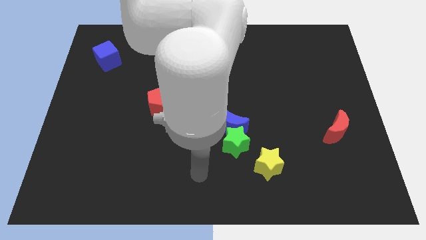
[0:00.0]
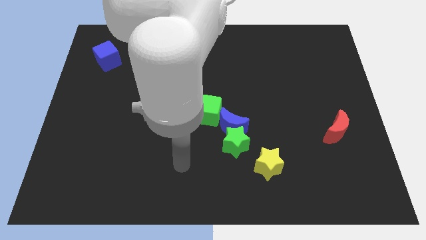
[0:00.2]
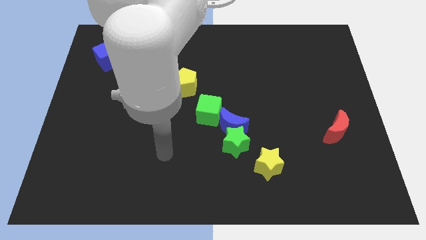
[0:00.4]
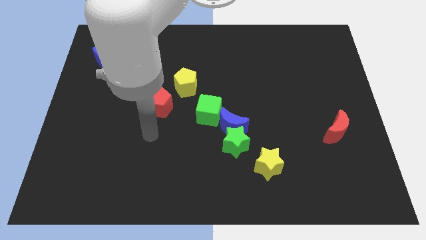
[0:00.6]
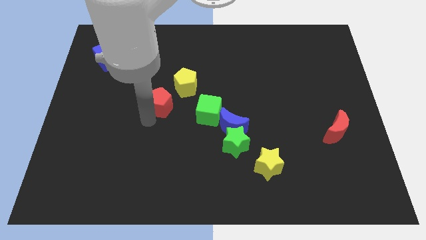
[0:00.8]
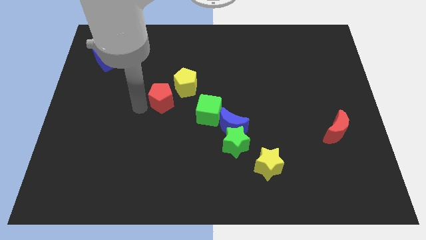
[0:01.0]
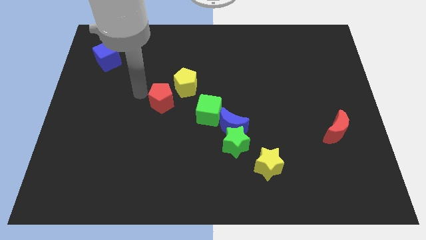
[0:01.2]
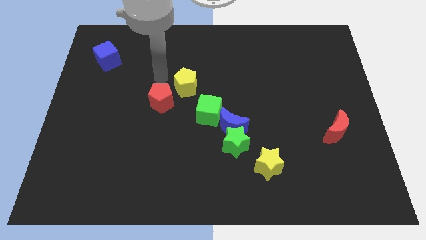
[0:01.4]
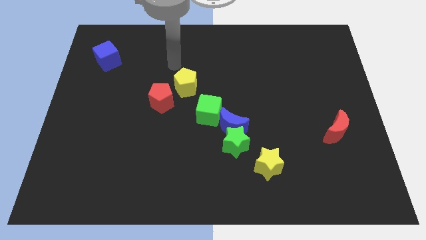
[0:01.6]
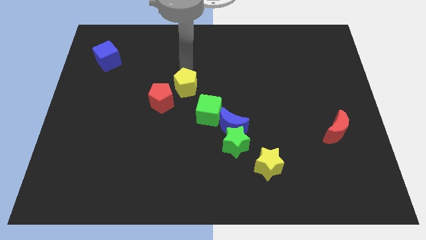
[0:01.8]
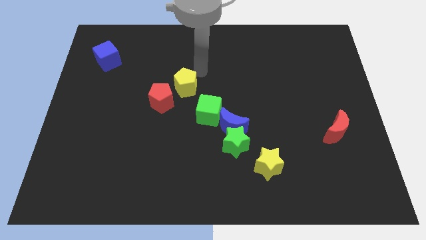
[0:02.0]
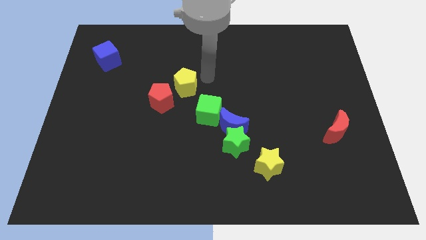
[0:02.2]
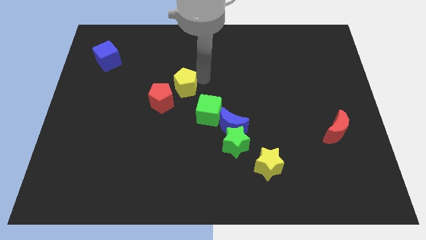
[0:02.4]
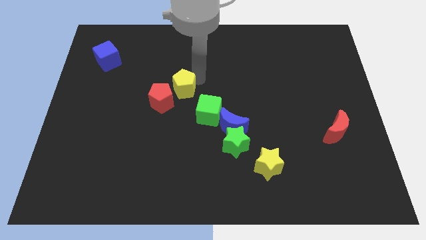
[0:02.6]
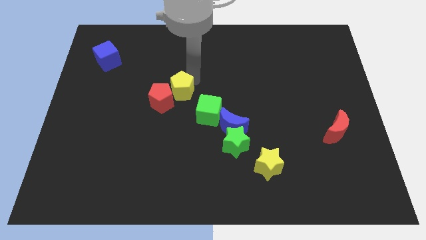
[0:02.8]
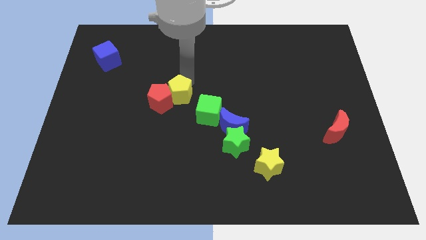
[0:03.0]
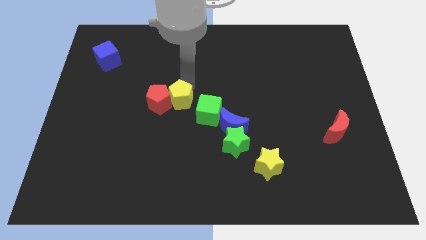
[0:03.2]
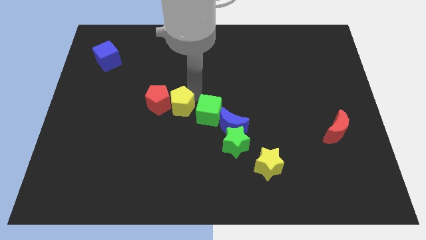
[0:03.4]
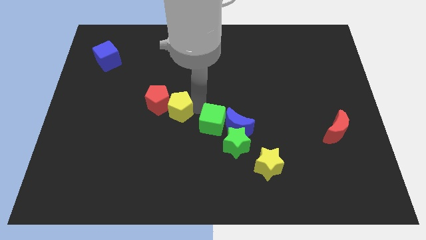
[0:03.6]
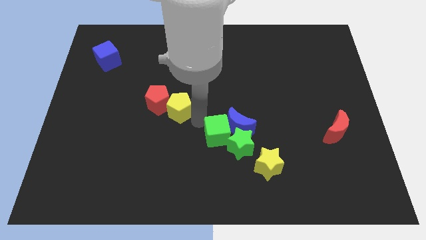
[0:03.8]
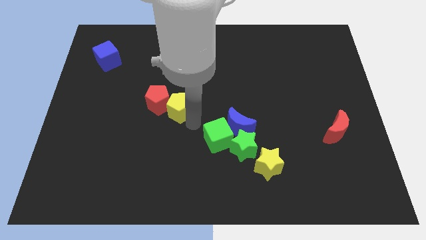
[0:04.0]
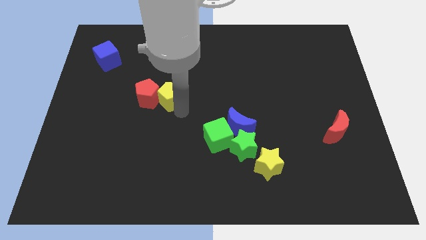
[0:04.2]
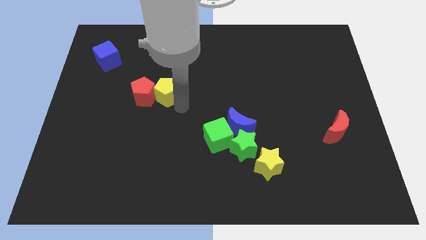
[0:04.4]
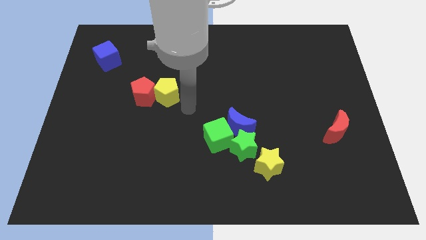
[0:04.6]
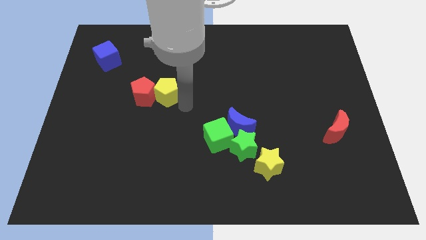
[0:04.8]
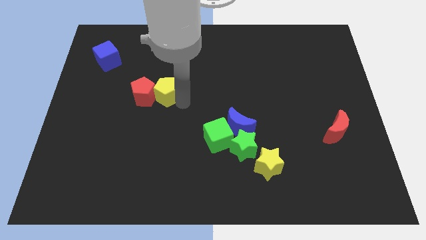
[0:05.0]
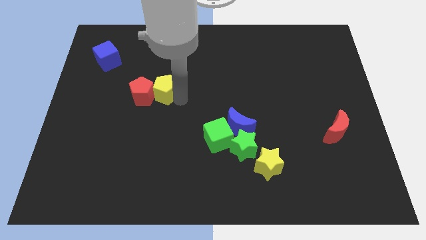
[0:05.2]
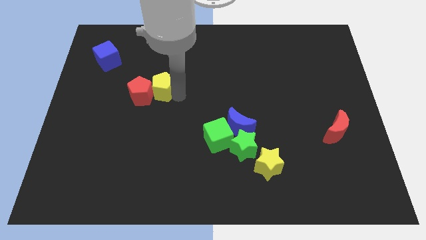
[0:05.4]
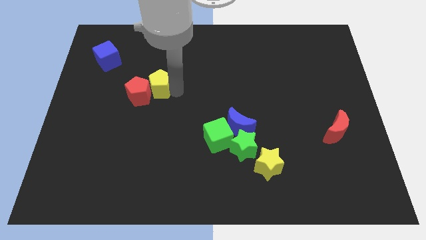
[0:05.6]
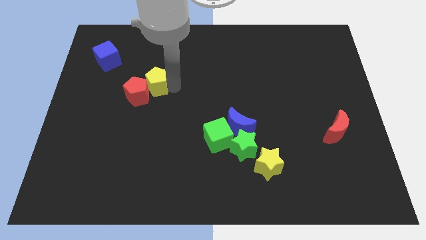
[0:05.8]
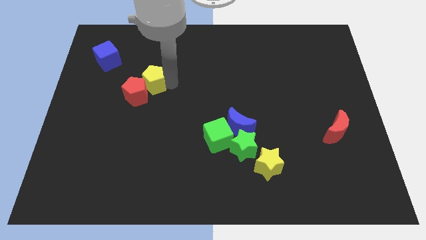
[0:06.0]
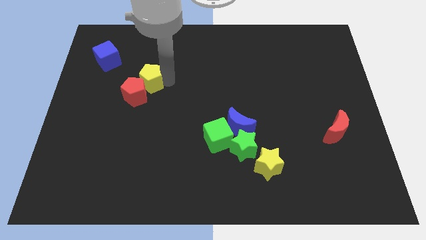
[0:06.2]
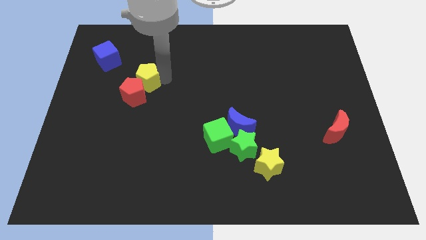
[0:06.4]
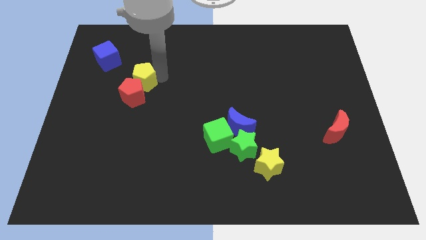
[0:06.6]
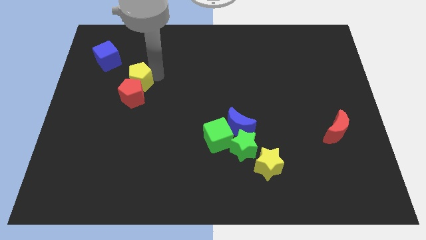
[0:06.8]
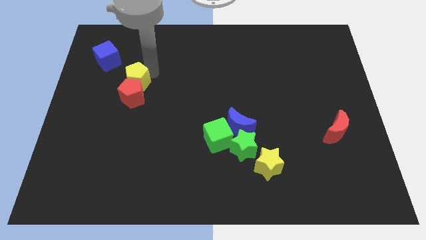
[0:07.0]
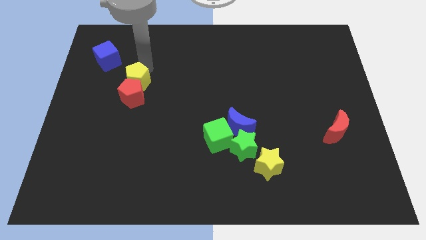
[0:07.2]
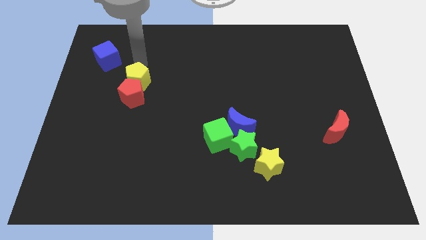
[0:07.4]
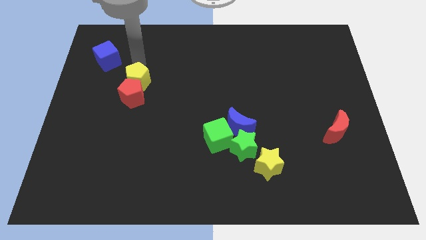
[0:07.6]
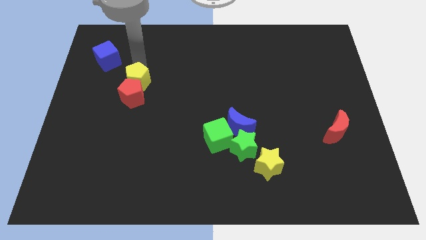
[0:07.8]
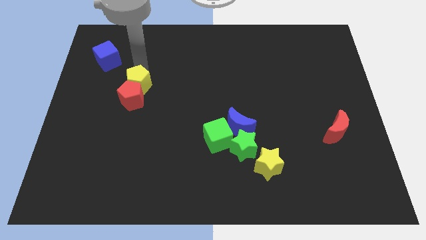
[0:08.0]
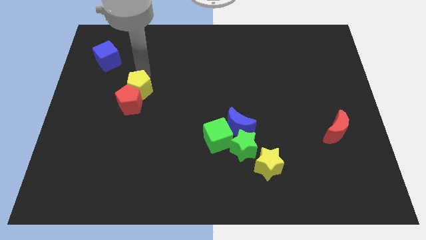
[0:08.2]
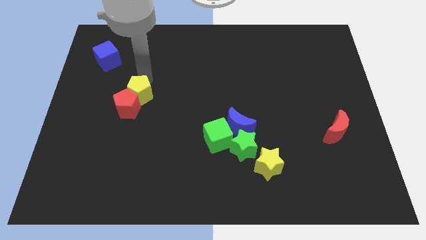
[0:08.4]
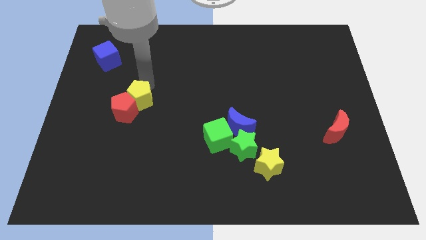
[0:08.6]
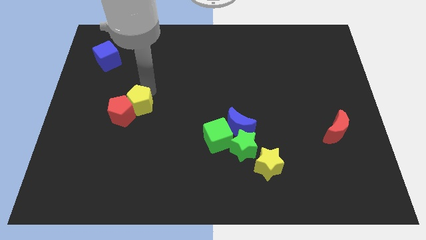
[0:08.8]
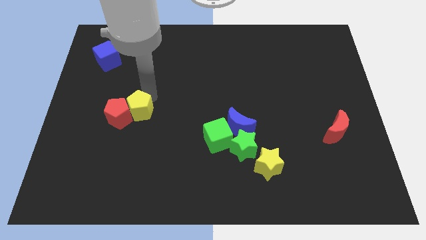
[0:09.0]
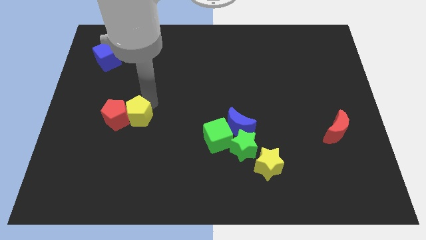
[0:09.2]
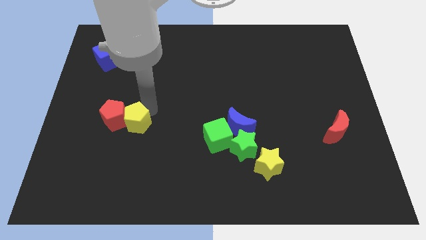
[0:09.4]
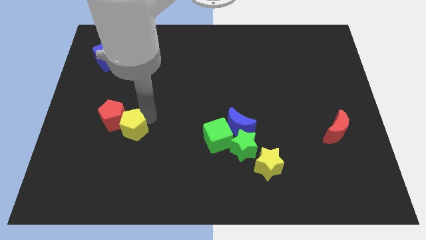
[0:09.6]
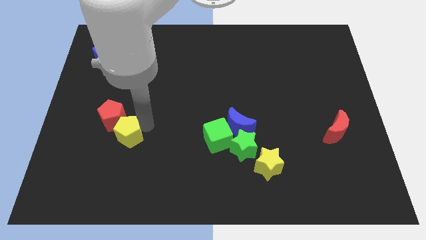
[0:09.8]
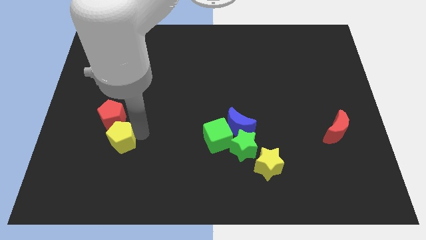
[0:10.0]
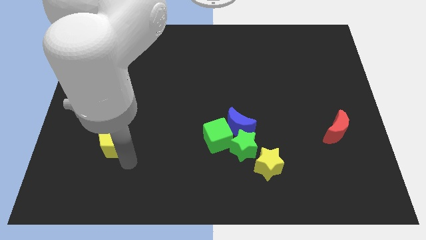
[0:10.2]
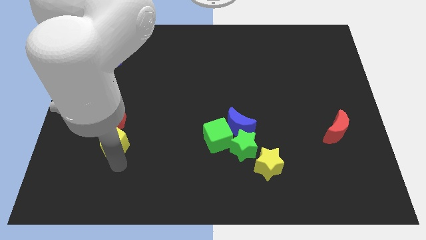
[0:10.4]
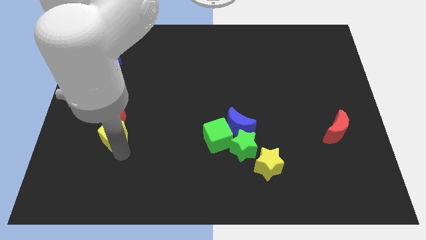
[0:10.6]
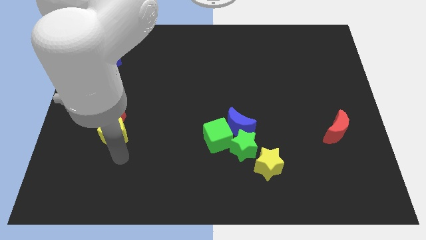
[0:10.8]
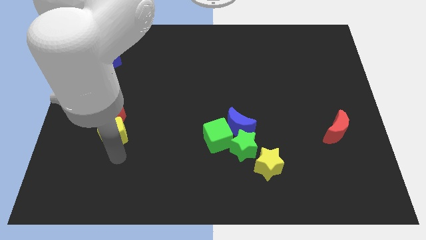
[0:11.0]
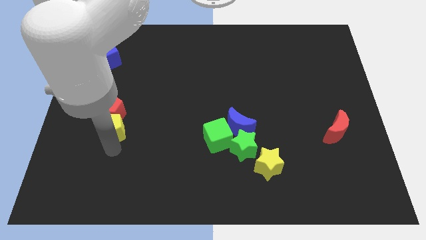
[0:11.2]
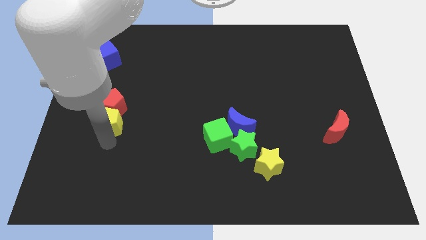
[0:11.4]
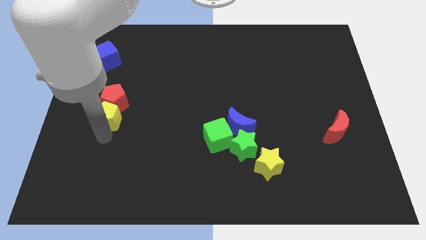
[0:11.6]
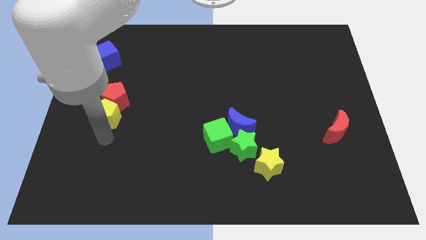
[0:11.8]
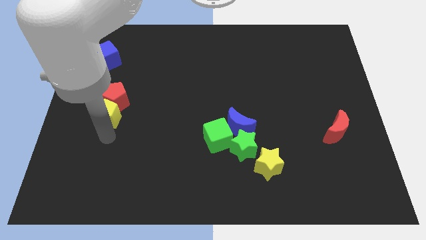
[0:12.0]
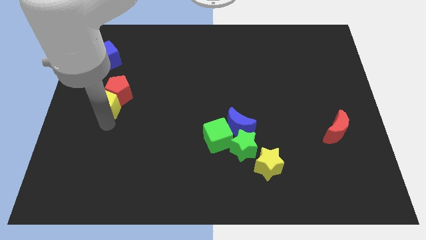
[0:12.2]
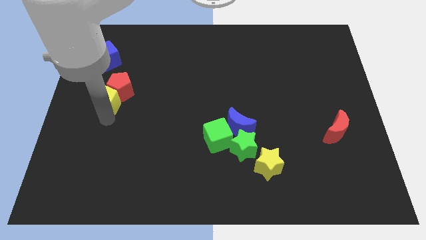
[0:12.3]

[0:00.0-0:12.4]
put the yellow pentagon to the left side
